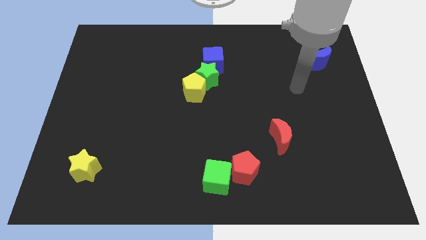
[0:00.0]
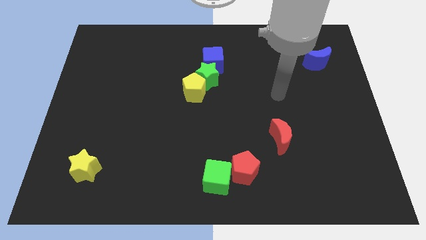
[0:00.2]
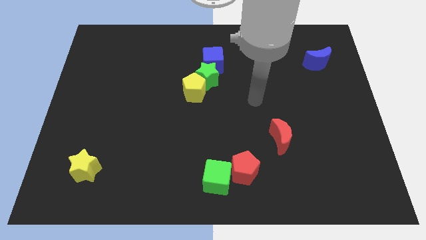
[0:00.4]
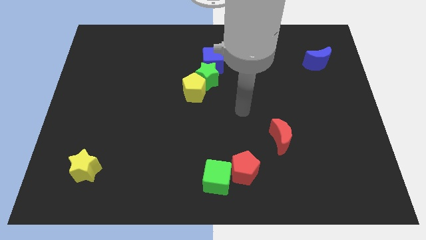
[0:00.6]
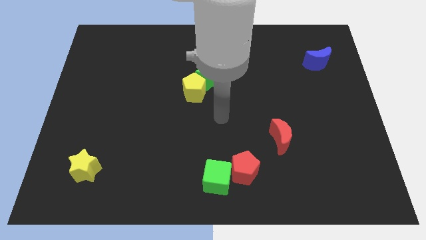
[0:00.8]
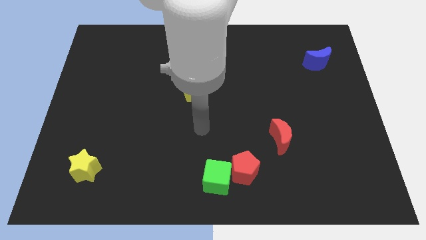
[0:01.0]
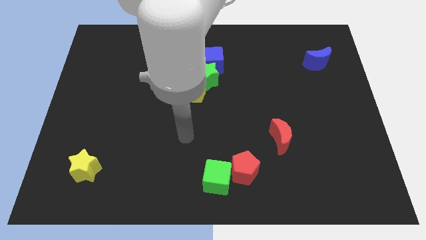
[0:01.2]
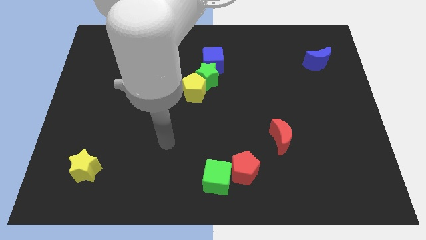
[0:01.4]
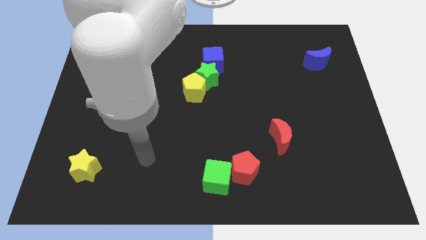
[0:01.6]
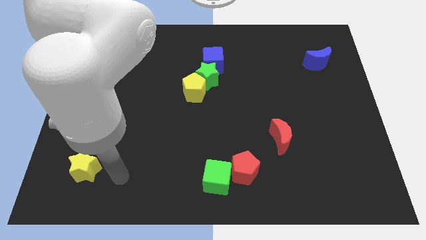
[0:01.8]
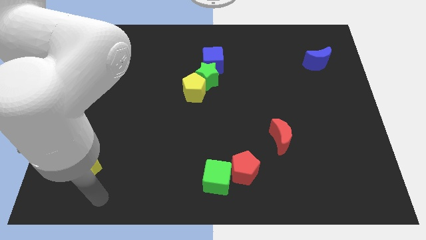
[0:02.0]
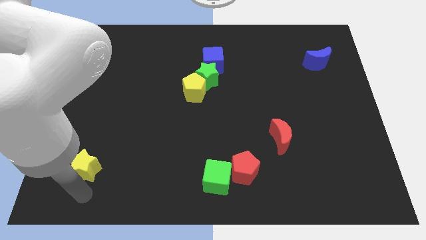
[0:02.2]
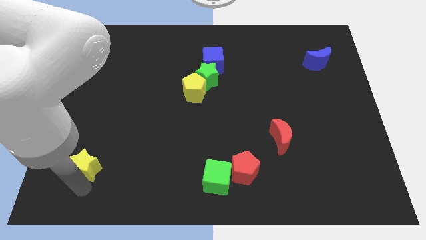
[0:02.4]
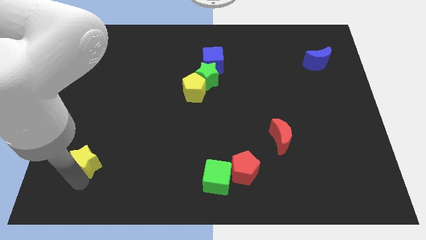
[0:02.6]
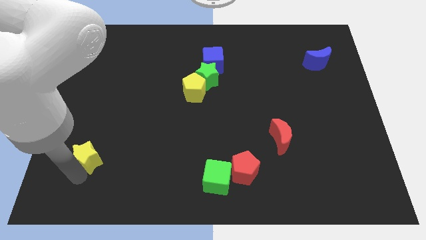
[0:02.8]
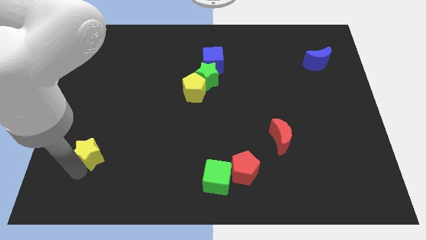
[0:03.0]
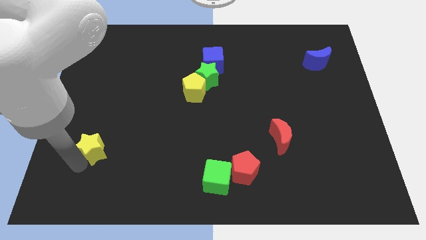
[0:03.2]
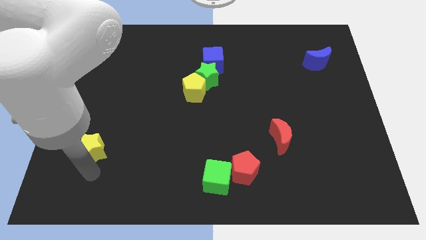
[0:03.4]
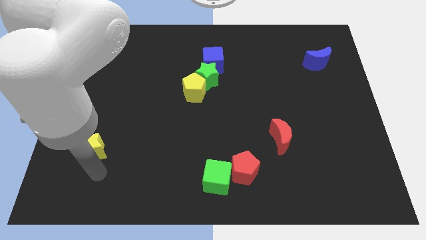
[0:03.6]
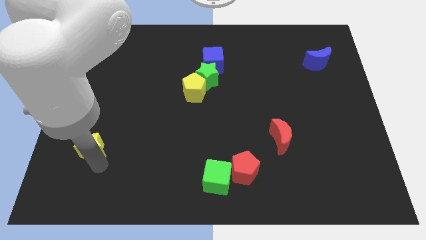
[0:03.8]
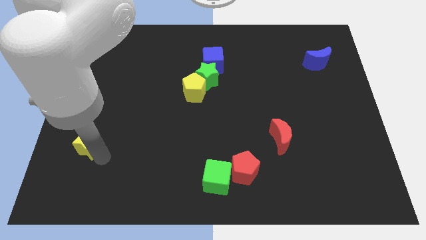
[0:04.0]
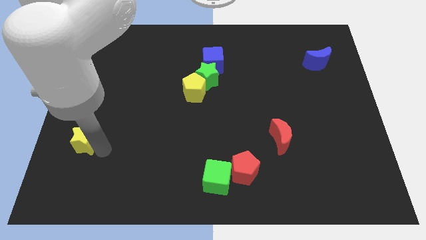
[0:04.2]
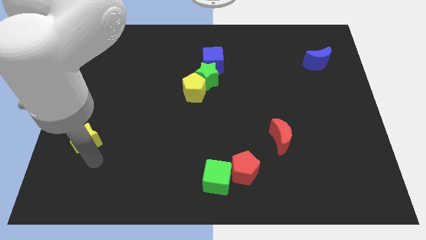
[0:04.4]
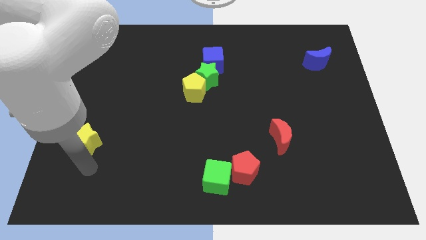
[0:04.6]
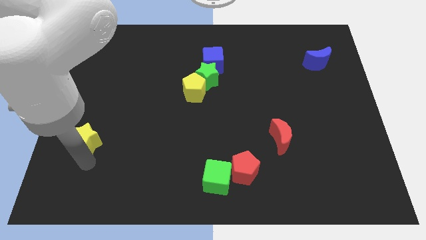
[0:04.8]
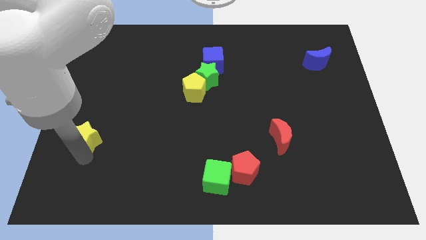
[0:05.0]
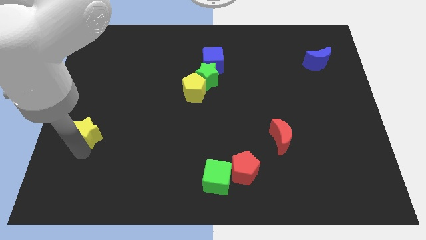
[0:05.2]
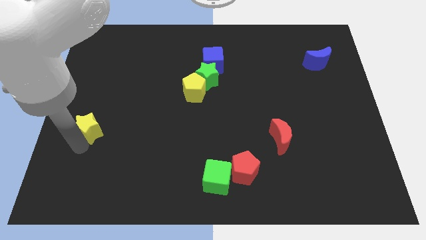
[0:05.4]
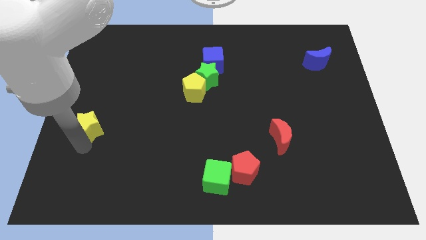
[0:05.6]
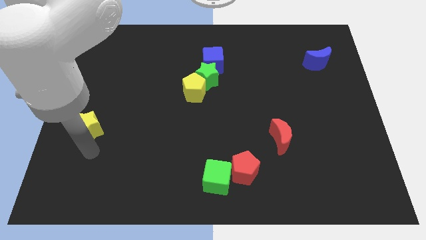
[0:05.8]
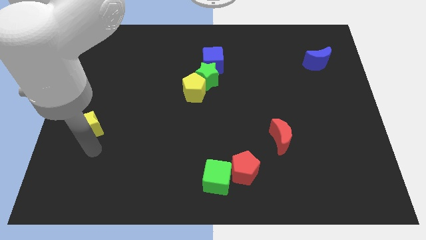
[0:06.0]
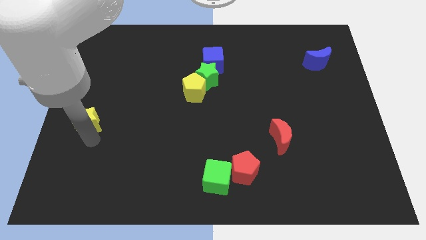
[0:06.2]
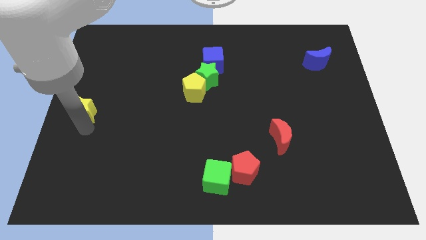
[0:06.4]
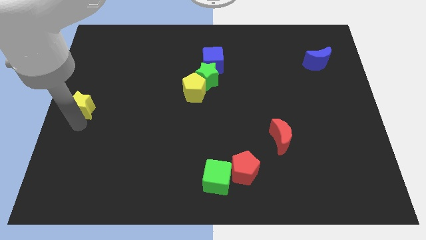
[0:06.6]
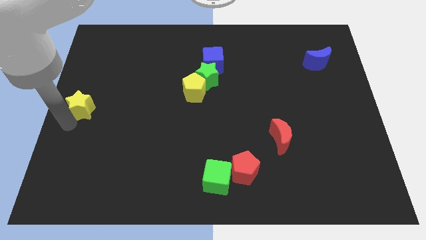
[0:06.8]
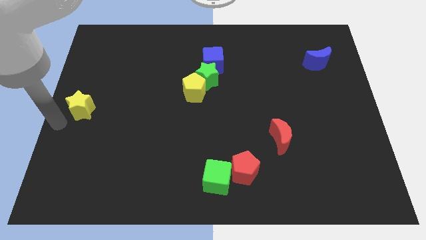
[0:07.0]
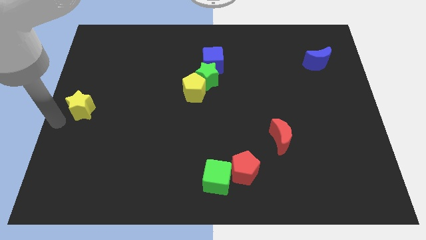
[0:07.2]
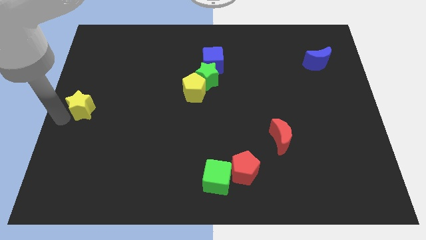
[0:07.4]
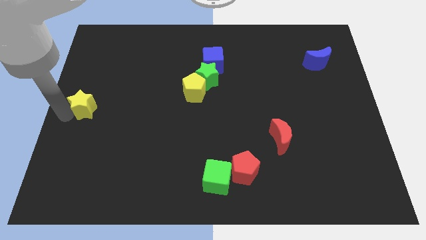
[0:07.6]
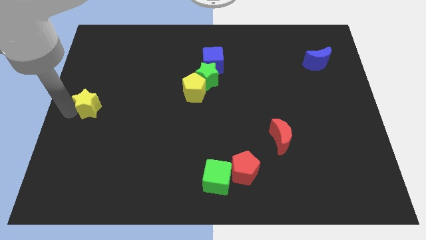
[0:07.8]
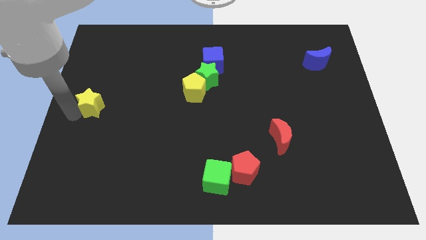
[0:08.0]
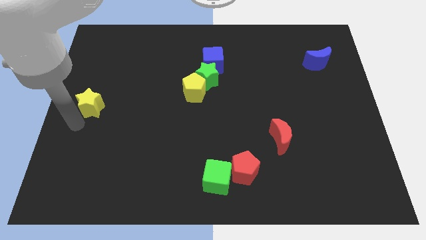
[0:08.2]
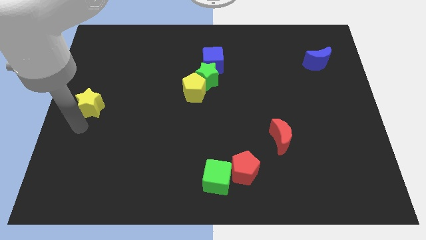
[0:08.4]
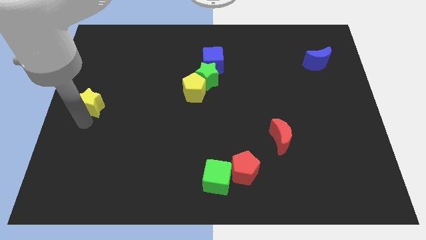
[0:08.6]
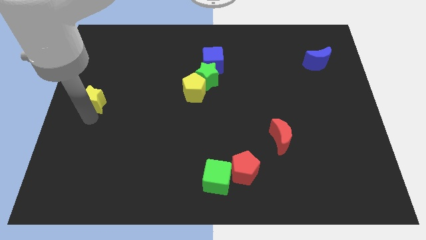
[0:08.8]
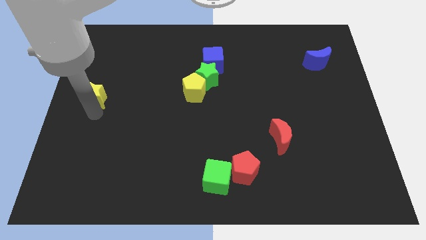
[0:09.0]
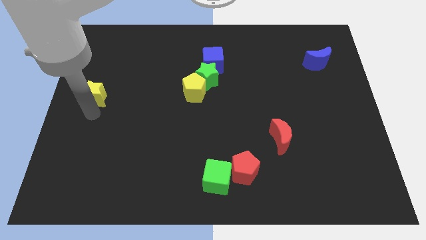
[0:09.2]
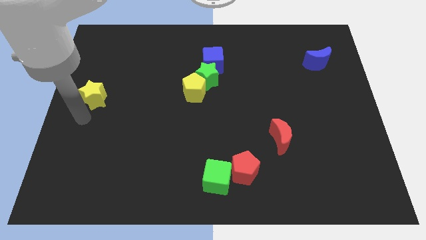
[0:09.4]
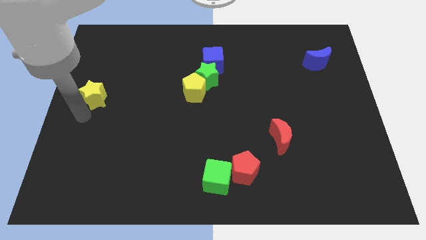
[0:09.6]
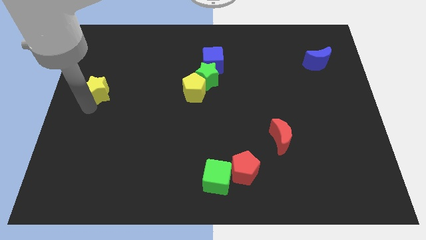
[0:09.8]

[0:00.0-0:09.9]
push the yellow star upwards

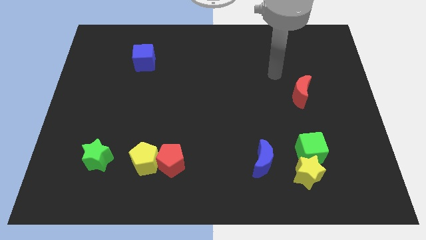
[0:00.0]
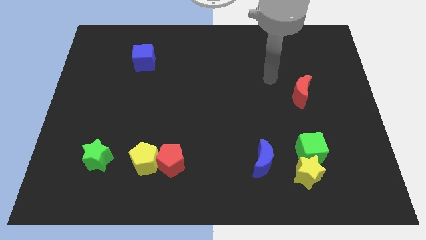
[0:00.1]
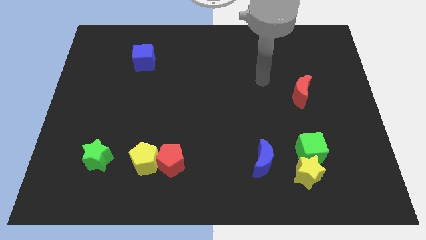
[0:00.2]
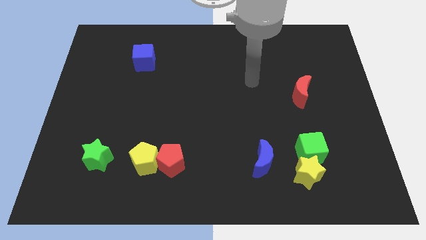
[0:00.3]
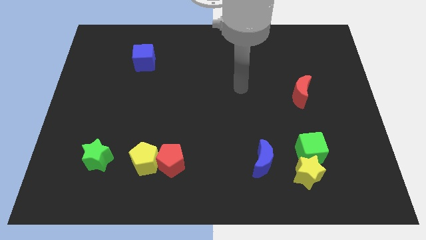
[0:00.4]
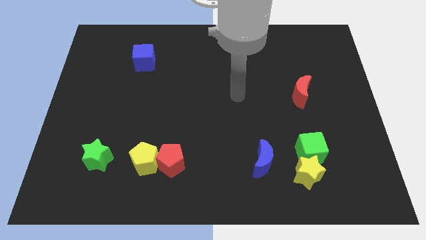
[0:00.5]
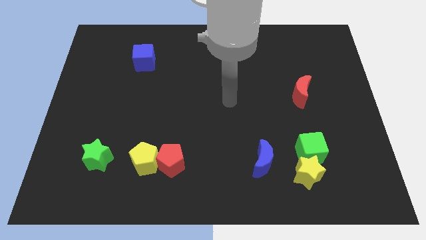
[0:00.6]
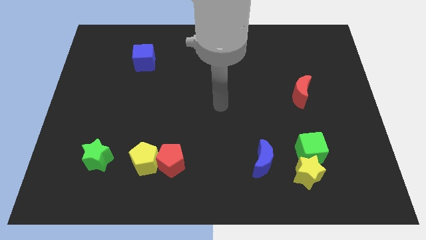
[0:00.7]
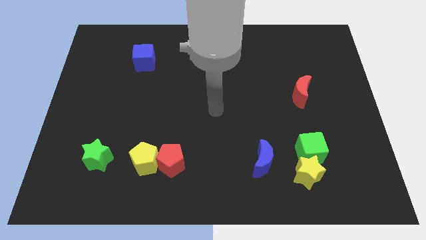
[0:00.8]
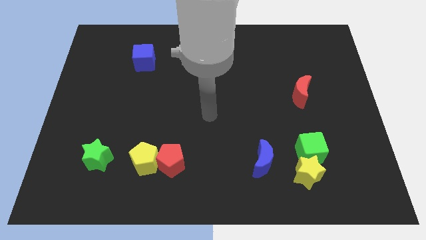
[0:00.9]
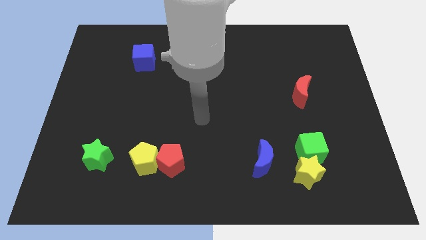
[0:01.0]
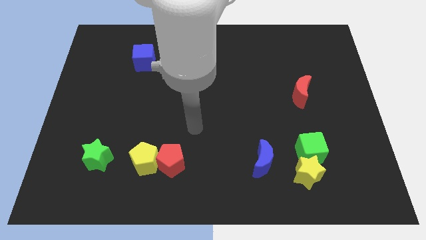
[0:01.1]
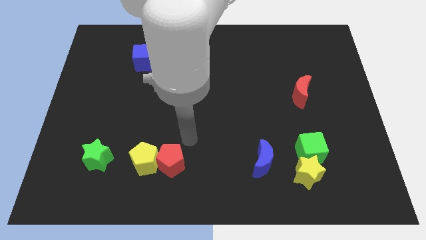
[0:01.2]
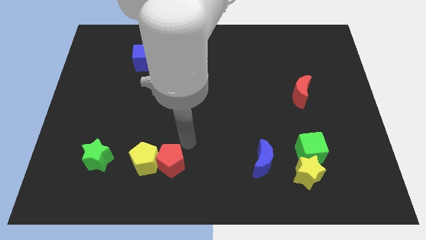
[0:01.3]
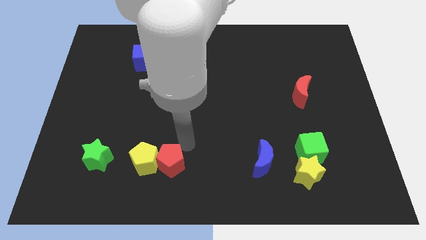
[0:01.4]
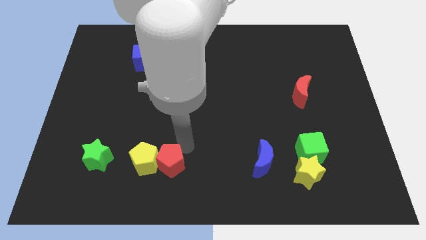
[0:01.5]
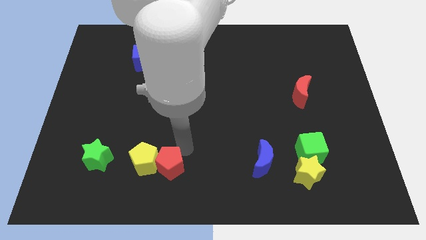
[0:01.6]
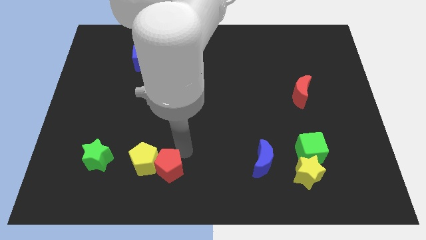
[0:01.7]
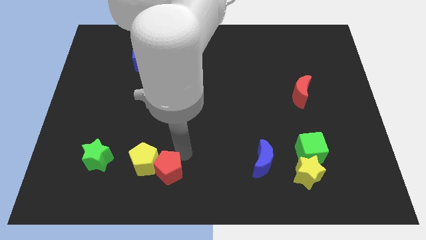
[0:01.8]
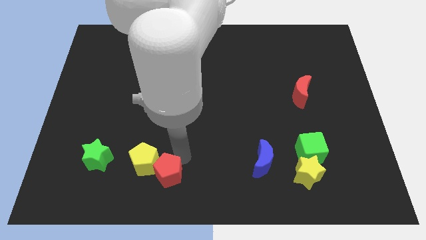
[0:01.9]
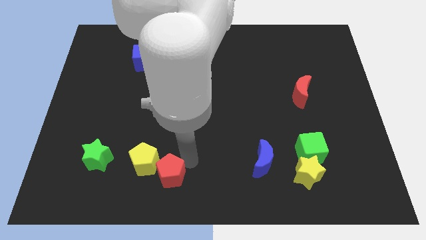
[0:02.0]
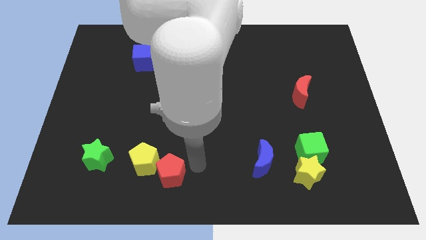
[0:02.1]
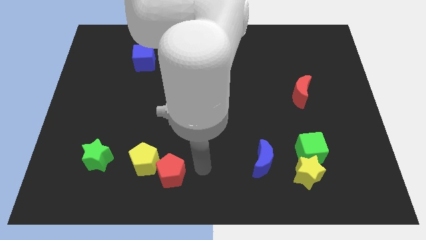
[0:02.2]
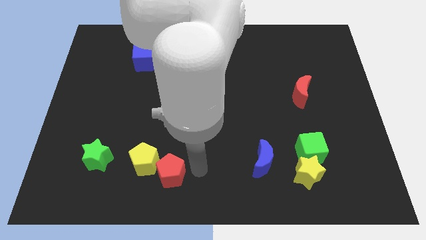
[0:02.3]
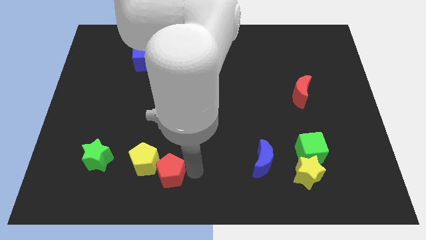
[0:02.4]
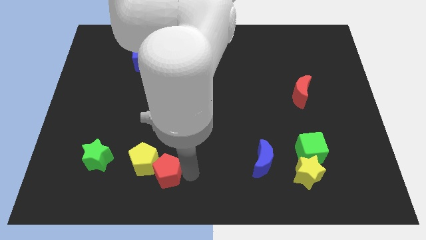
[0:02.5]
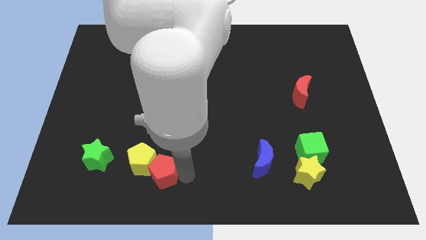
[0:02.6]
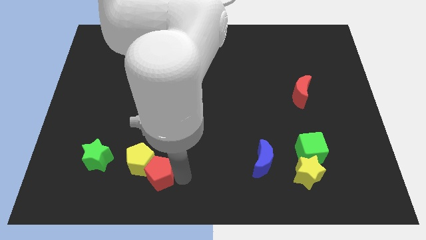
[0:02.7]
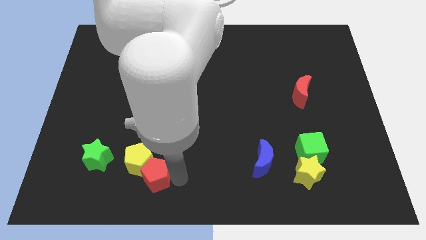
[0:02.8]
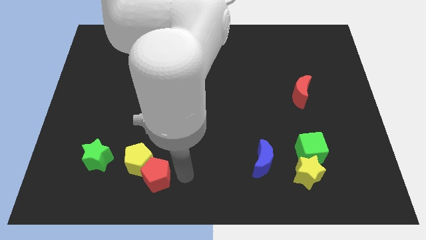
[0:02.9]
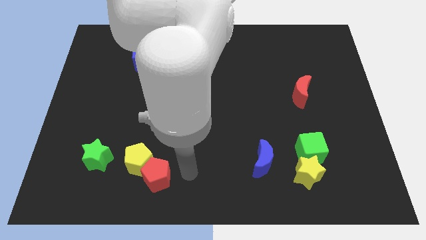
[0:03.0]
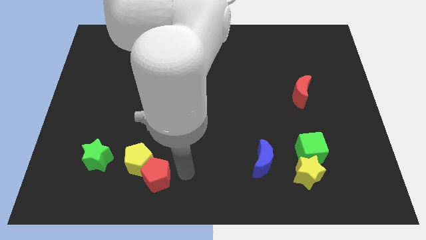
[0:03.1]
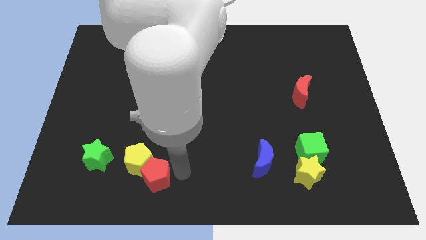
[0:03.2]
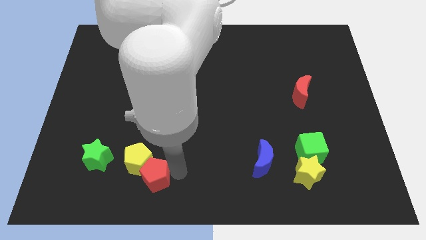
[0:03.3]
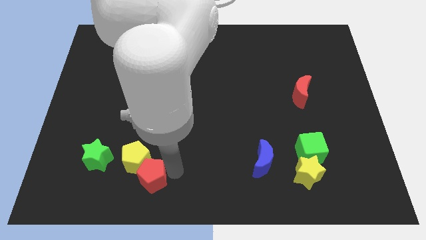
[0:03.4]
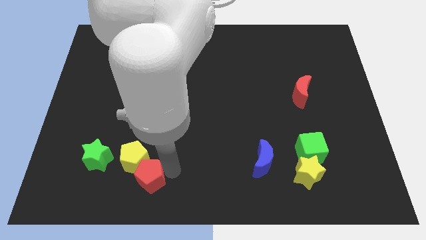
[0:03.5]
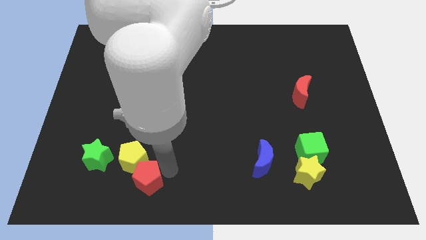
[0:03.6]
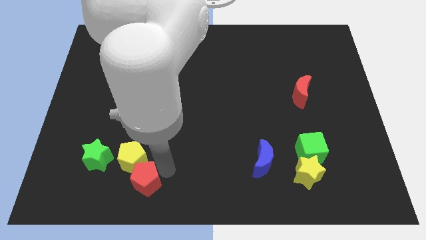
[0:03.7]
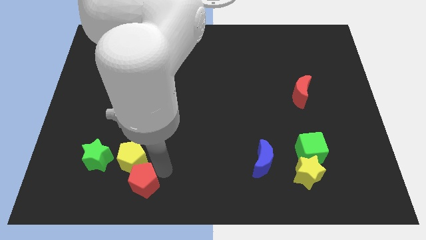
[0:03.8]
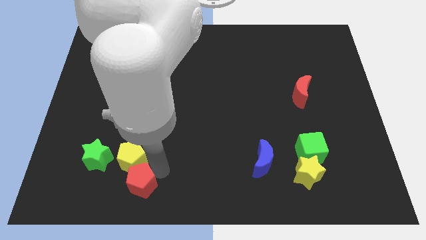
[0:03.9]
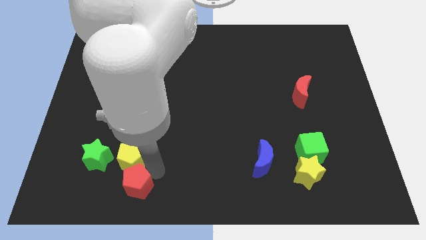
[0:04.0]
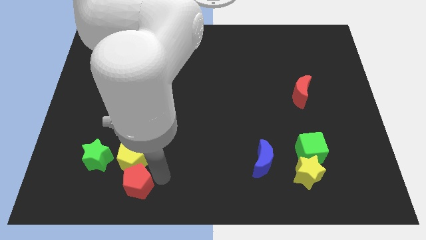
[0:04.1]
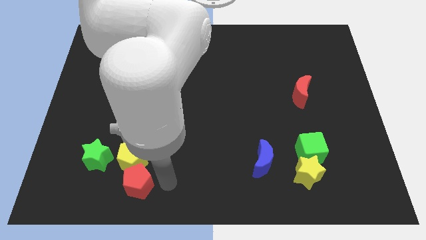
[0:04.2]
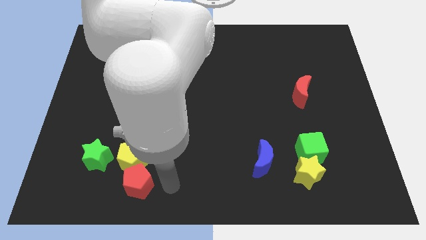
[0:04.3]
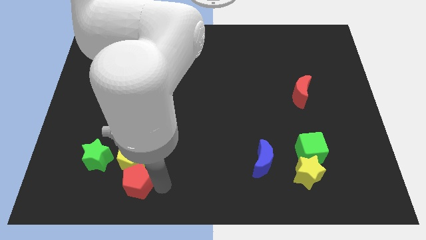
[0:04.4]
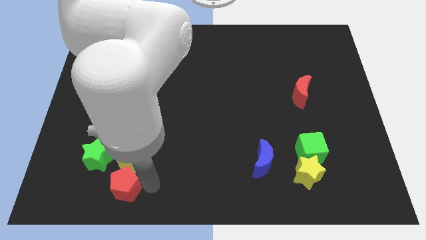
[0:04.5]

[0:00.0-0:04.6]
push the red pentagon somewhat to the left
